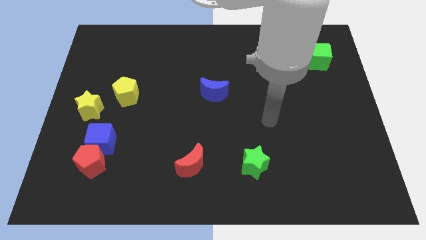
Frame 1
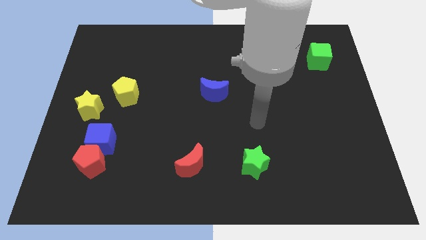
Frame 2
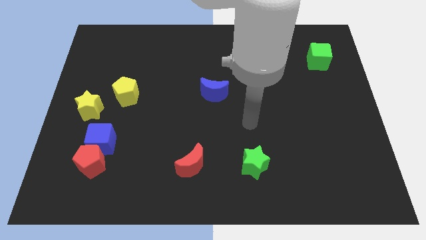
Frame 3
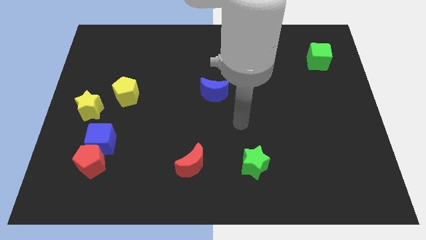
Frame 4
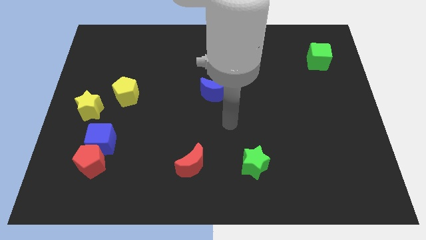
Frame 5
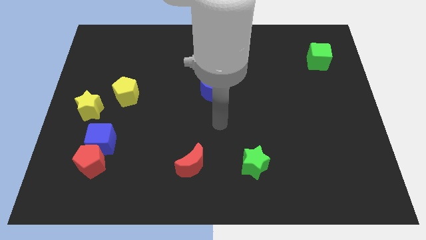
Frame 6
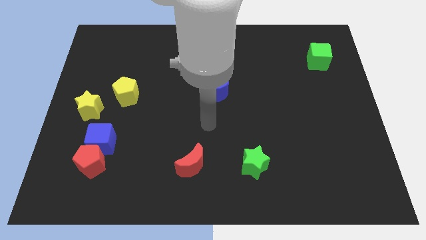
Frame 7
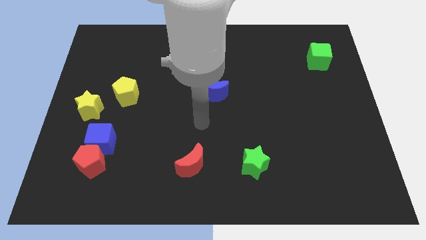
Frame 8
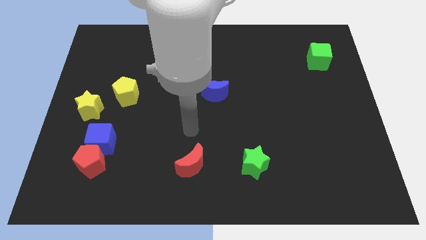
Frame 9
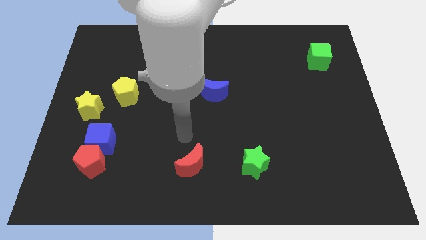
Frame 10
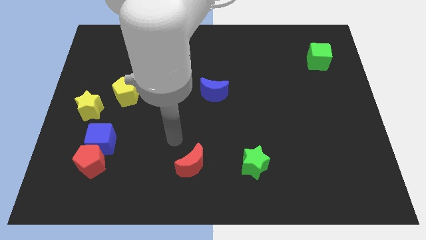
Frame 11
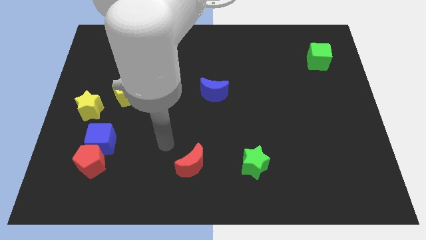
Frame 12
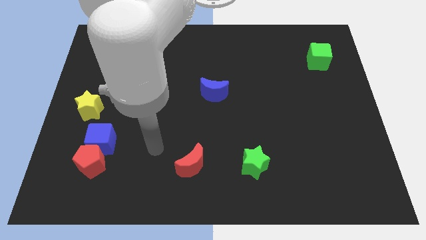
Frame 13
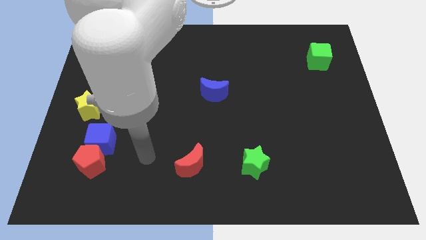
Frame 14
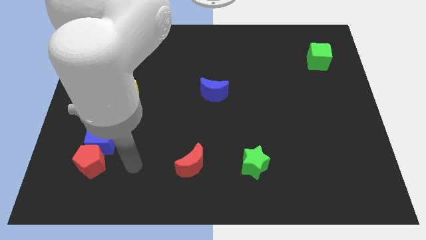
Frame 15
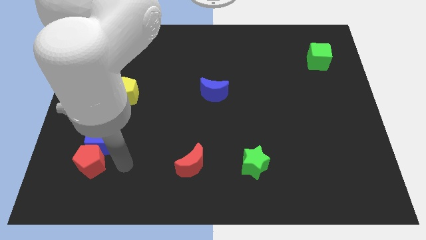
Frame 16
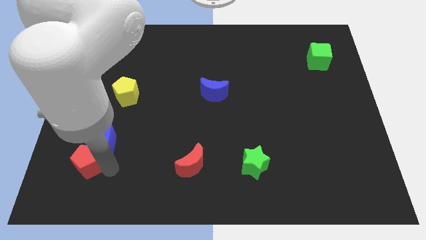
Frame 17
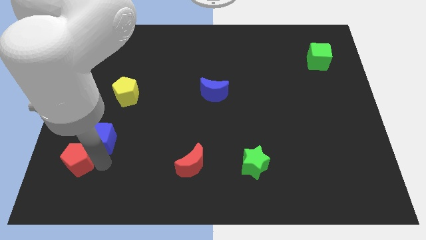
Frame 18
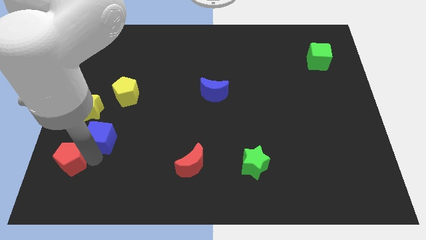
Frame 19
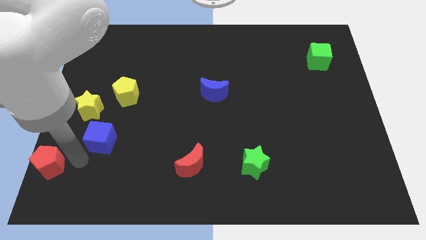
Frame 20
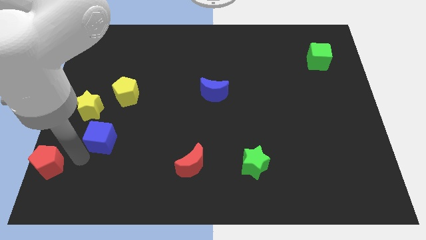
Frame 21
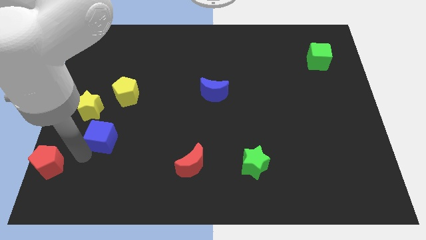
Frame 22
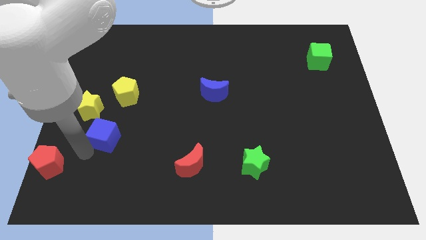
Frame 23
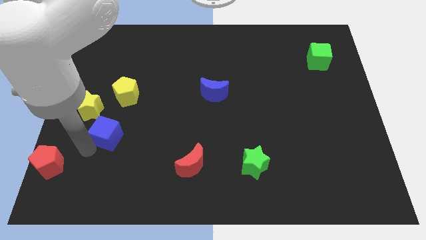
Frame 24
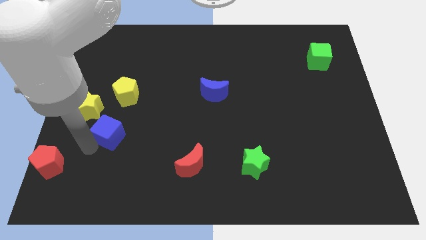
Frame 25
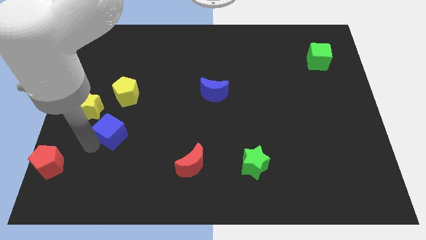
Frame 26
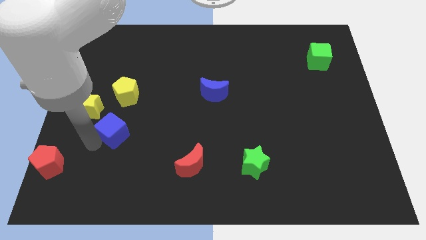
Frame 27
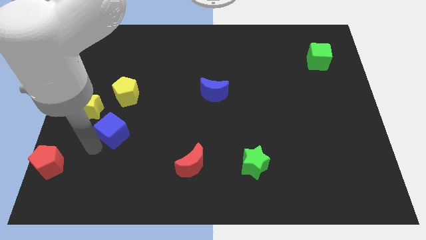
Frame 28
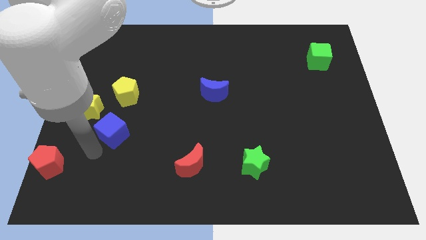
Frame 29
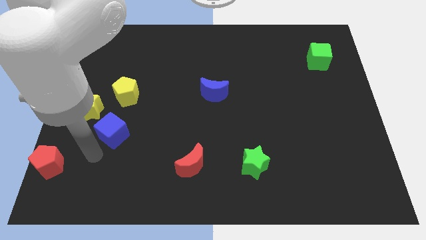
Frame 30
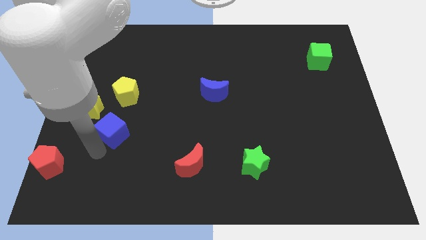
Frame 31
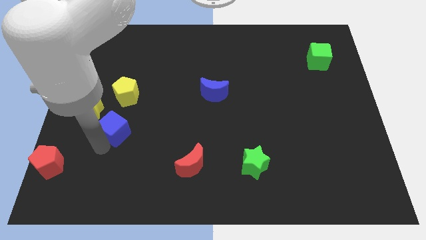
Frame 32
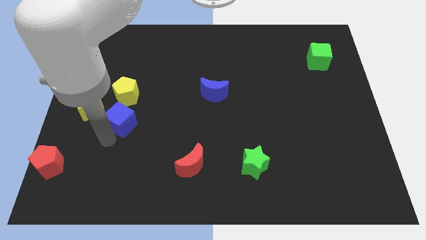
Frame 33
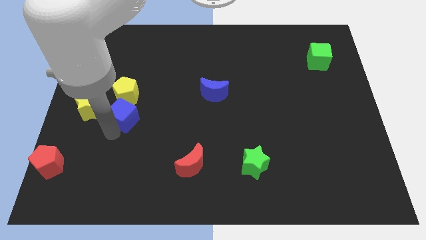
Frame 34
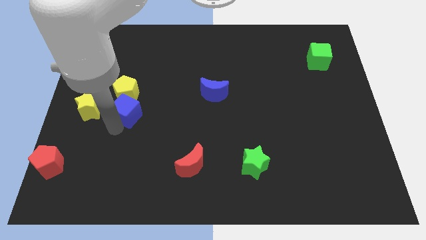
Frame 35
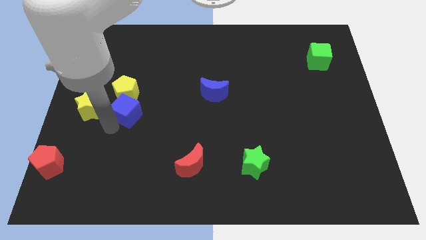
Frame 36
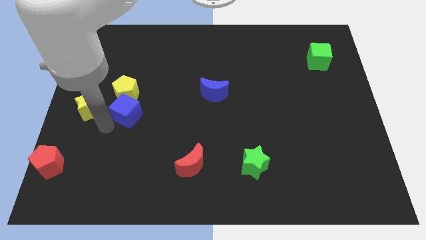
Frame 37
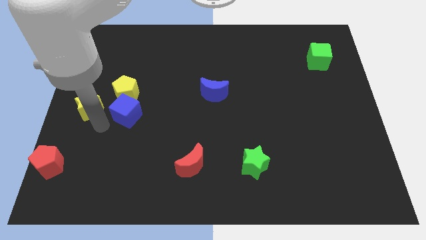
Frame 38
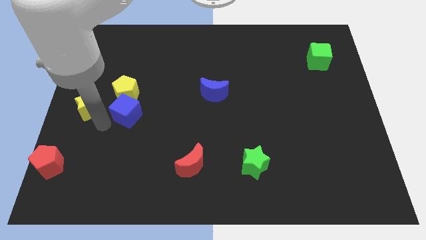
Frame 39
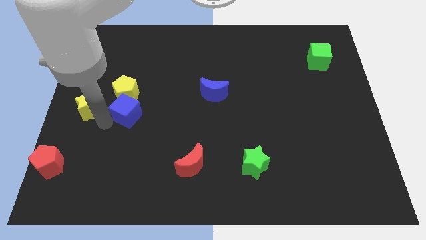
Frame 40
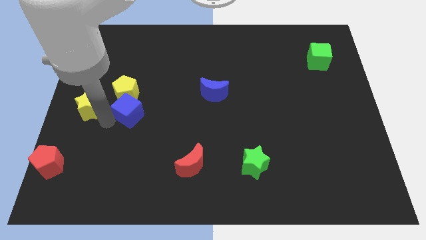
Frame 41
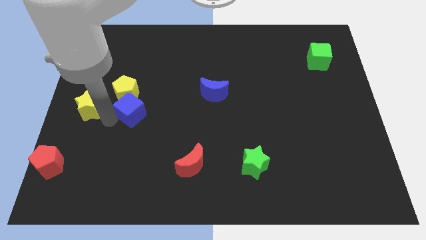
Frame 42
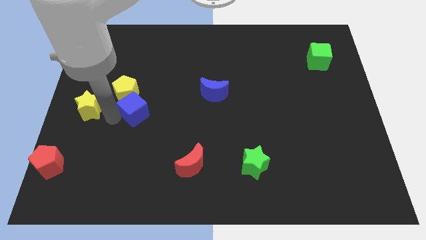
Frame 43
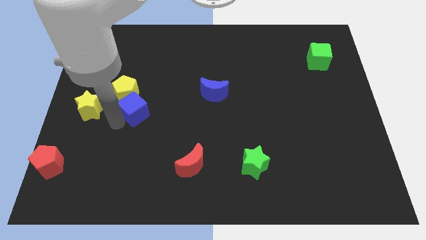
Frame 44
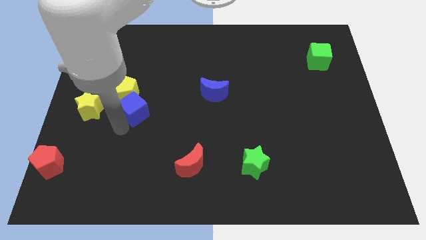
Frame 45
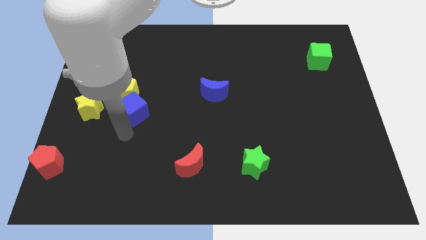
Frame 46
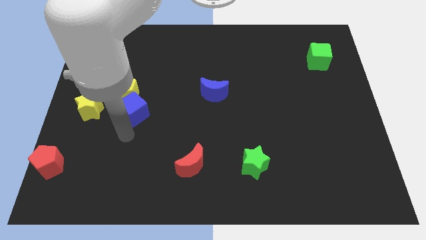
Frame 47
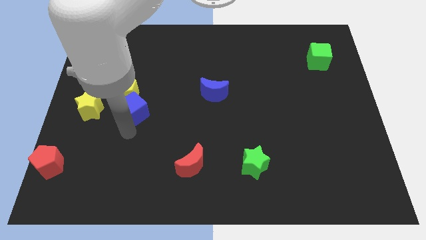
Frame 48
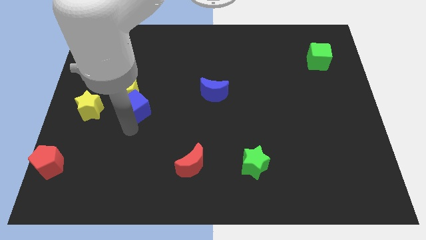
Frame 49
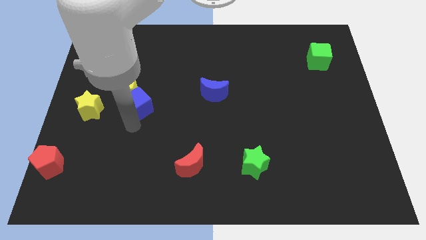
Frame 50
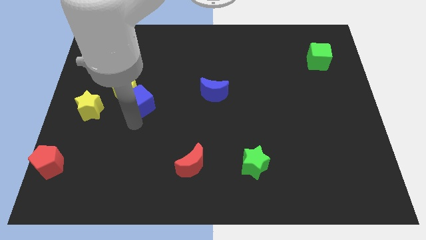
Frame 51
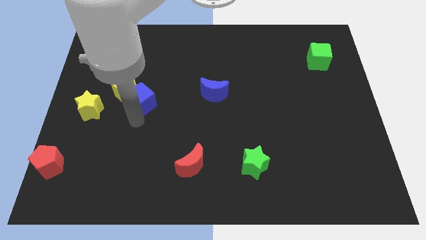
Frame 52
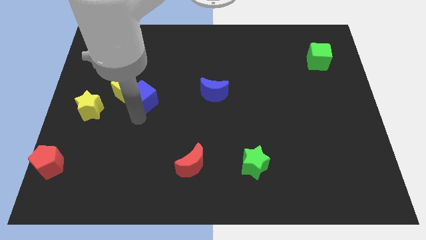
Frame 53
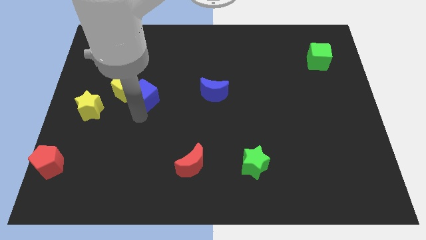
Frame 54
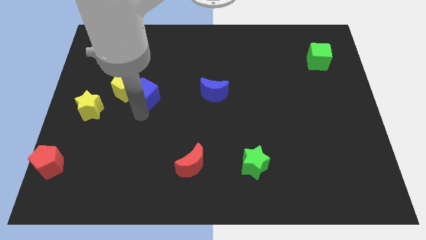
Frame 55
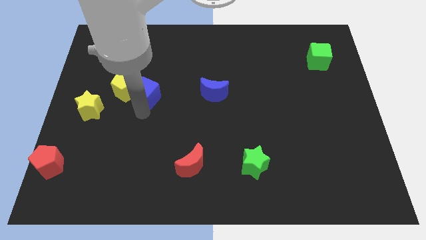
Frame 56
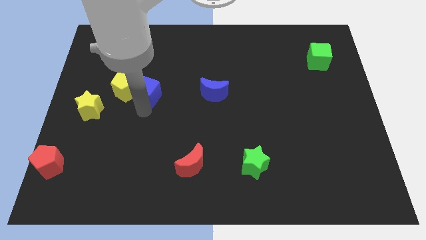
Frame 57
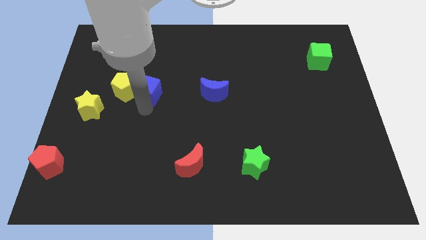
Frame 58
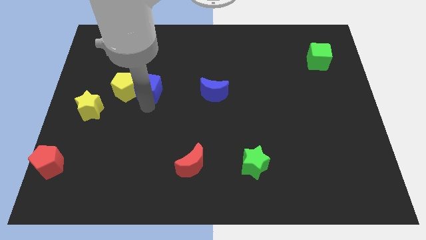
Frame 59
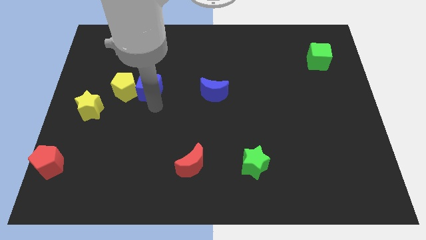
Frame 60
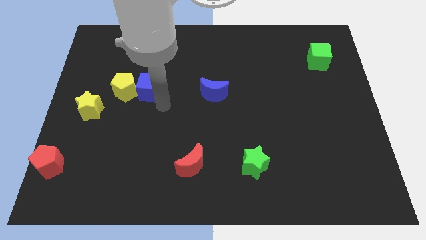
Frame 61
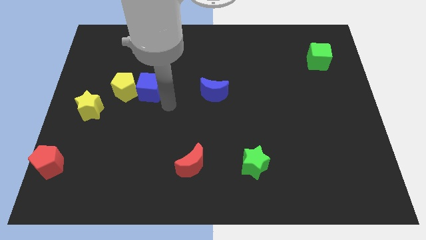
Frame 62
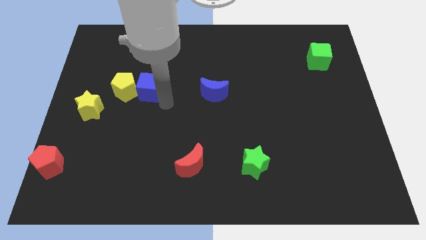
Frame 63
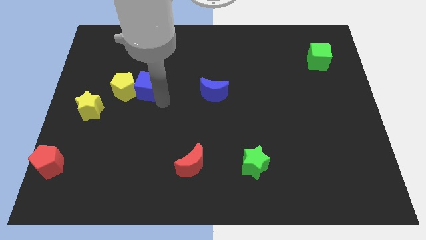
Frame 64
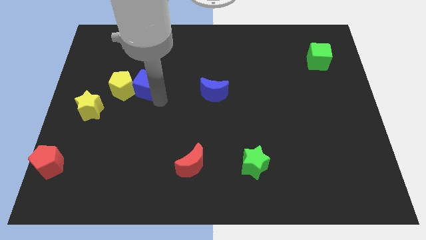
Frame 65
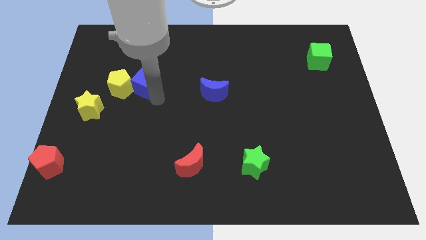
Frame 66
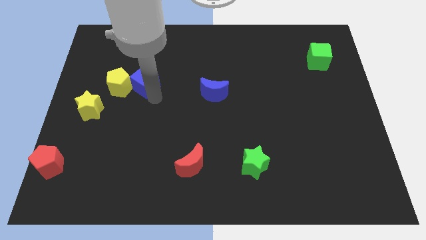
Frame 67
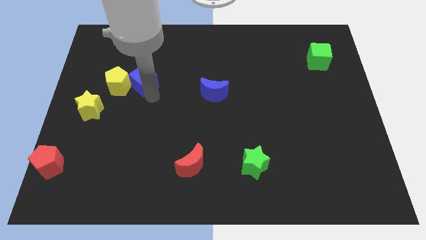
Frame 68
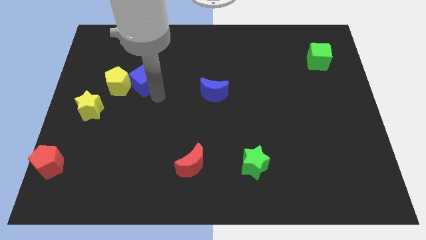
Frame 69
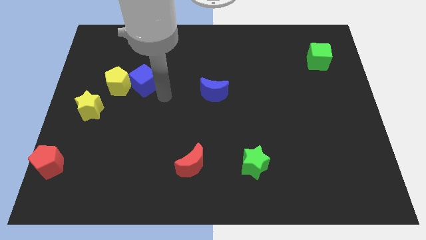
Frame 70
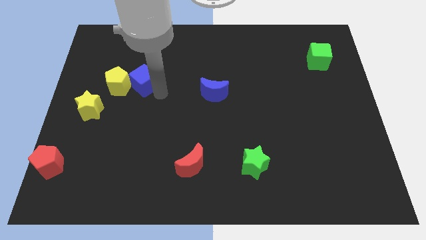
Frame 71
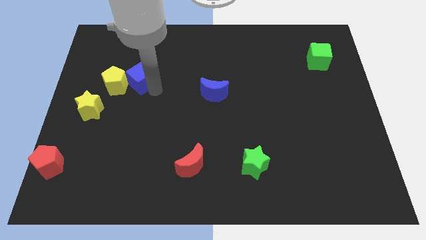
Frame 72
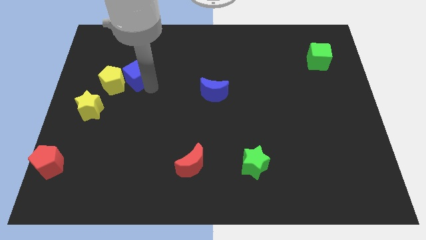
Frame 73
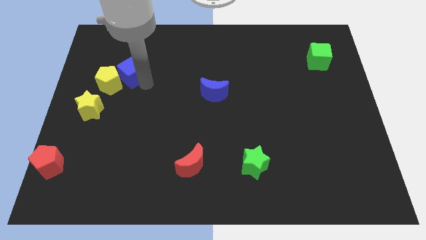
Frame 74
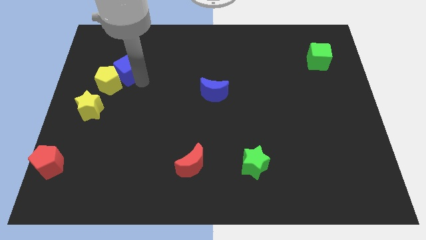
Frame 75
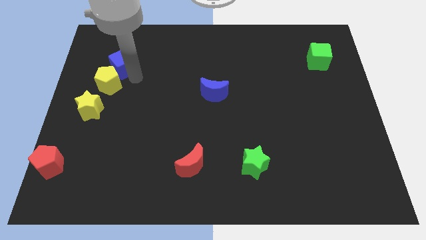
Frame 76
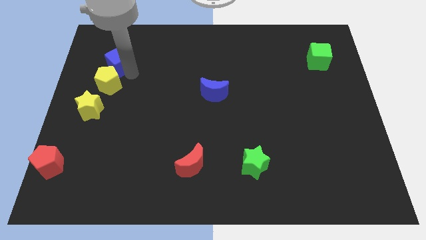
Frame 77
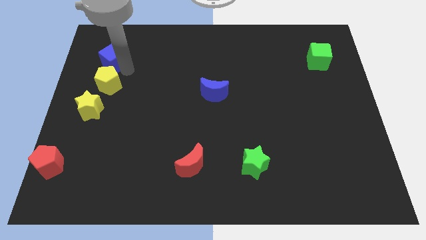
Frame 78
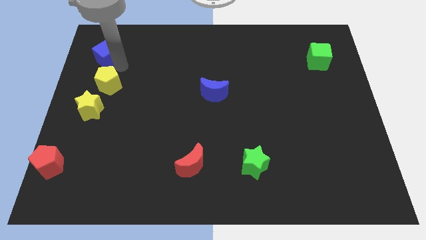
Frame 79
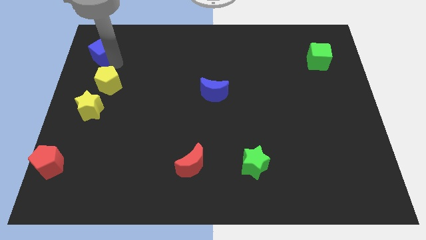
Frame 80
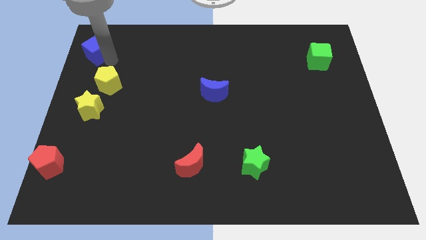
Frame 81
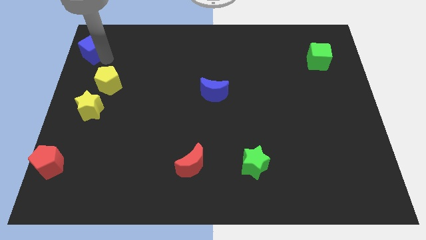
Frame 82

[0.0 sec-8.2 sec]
put the blue cube to the top left
